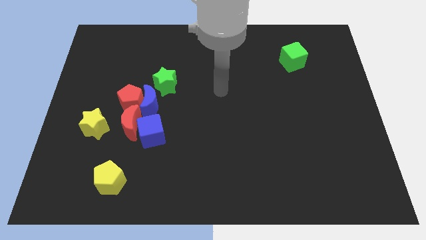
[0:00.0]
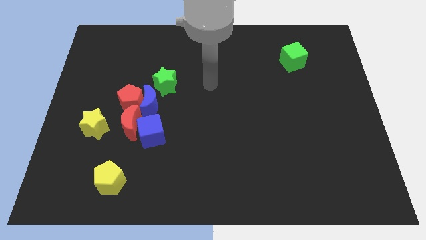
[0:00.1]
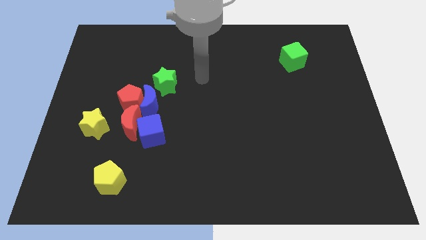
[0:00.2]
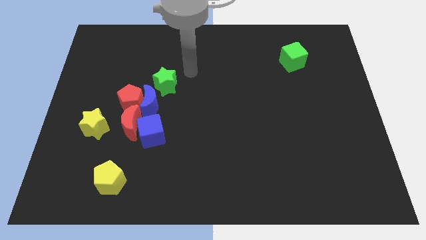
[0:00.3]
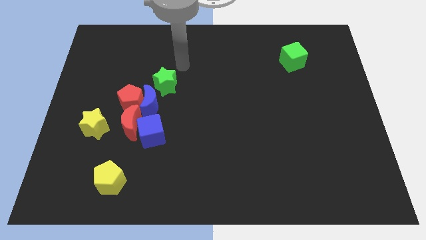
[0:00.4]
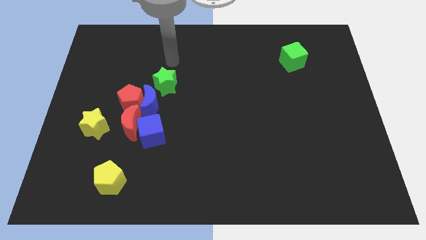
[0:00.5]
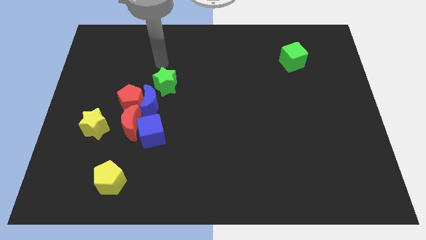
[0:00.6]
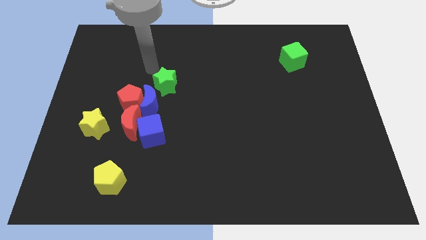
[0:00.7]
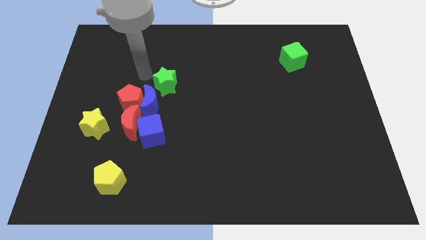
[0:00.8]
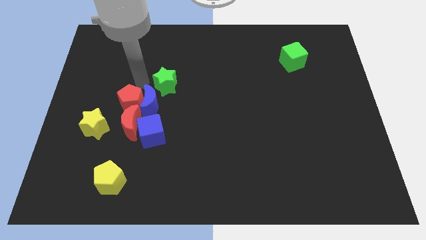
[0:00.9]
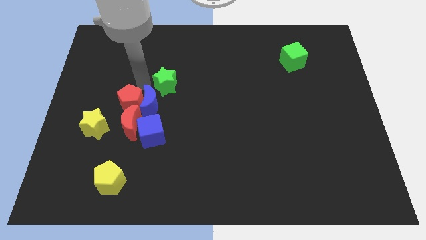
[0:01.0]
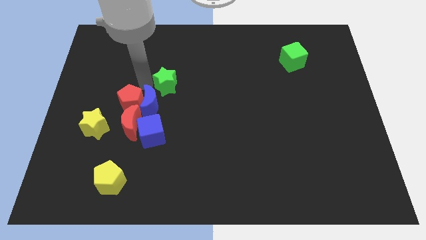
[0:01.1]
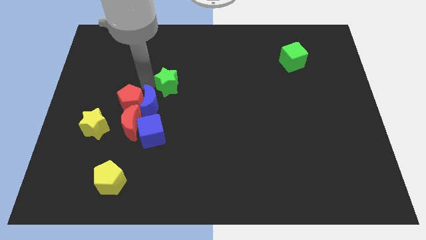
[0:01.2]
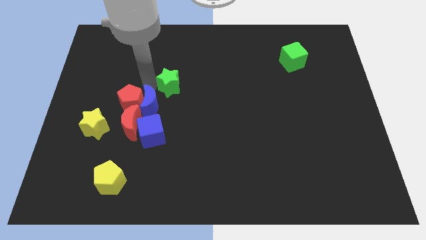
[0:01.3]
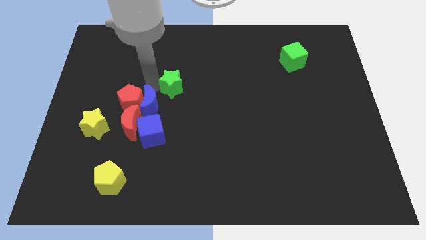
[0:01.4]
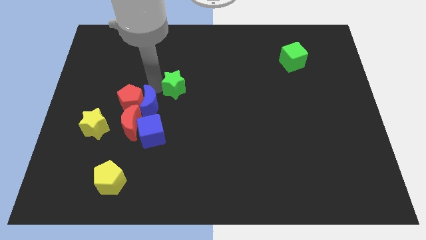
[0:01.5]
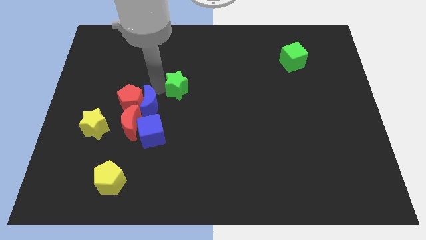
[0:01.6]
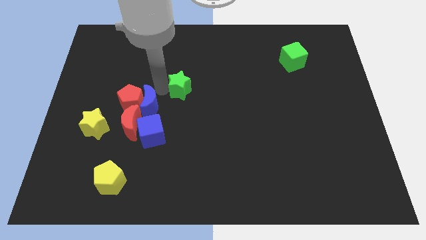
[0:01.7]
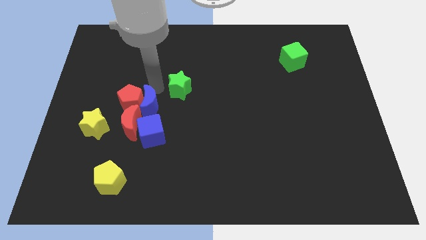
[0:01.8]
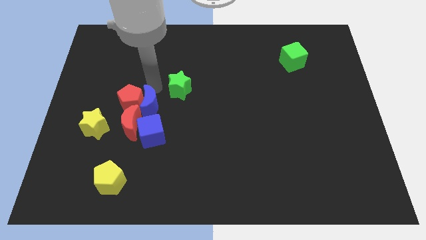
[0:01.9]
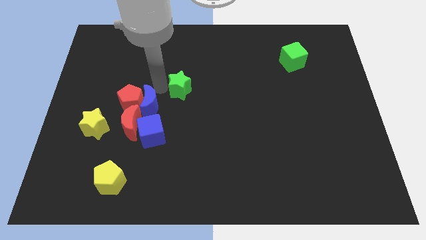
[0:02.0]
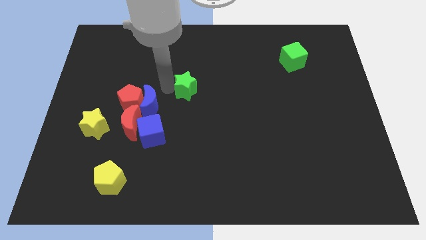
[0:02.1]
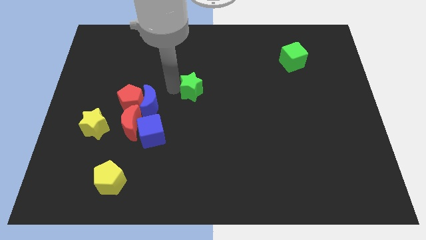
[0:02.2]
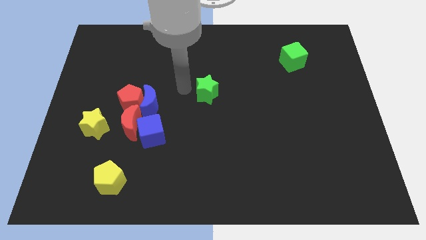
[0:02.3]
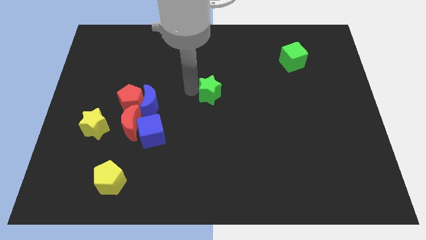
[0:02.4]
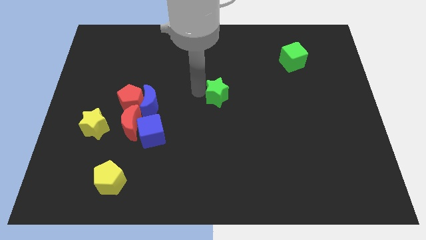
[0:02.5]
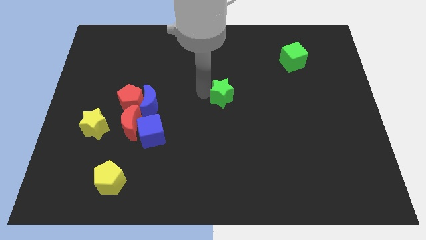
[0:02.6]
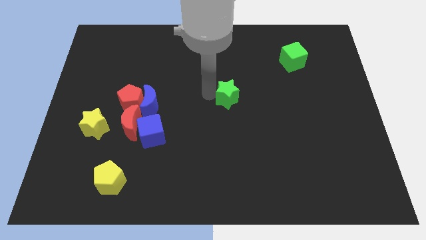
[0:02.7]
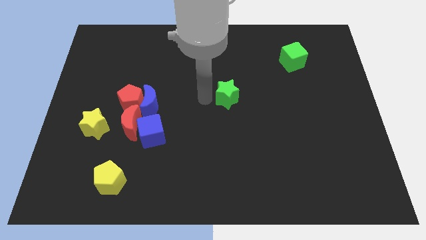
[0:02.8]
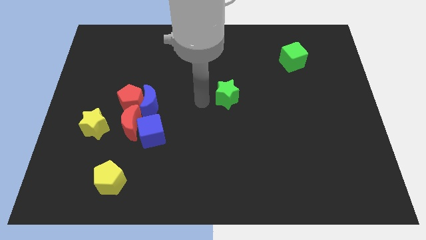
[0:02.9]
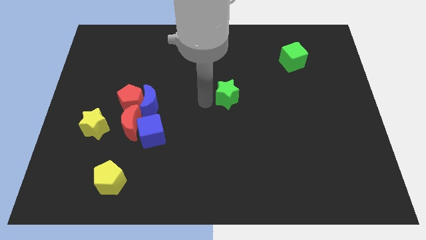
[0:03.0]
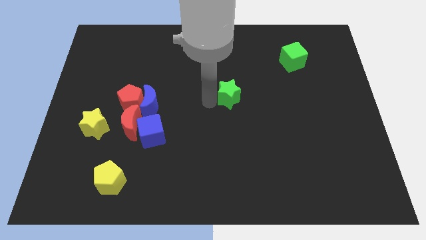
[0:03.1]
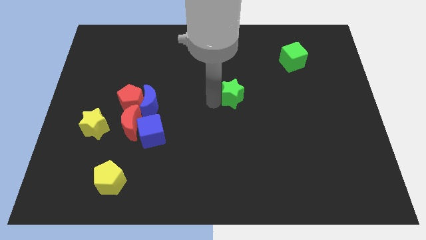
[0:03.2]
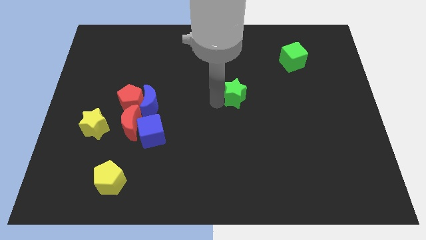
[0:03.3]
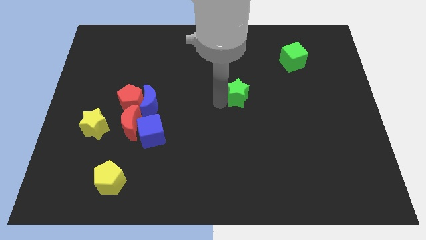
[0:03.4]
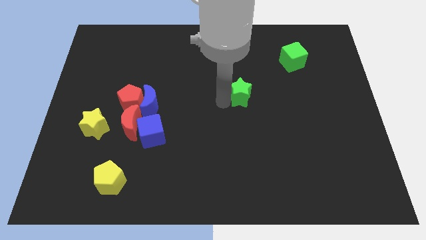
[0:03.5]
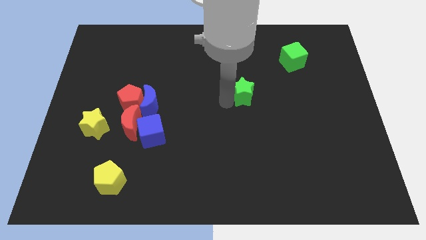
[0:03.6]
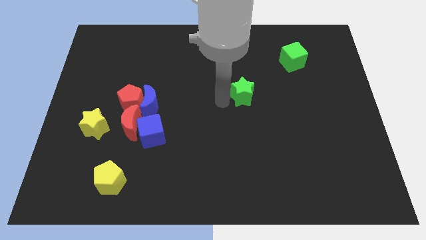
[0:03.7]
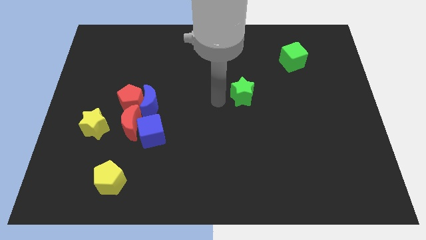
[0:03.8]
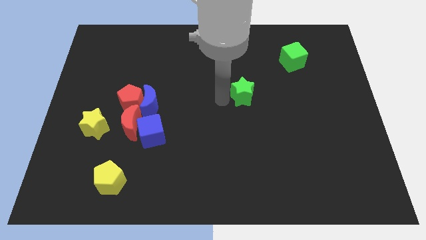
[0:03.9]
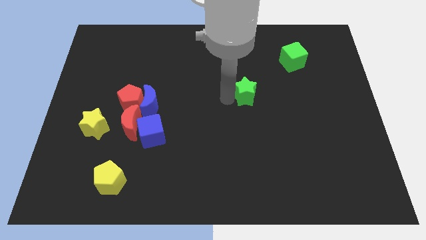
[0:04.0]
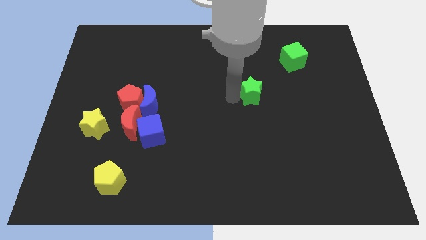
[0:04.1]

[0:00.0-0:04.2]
push the green star to the right

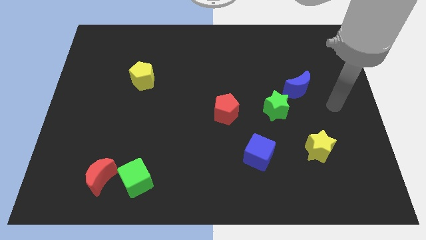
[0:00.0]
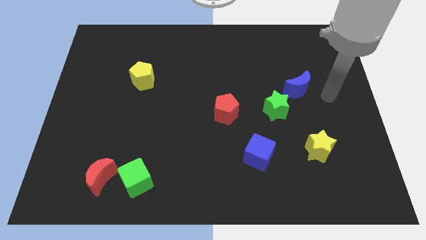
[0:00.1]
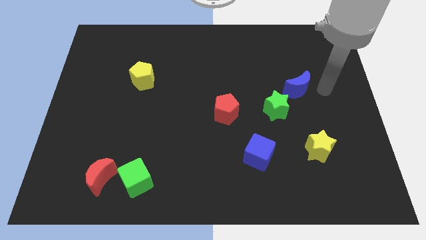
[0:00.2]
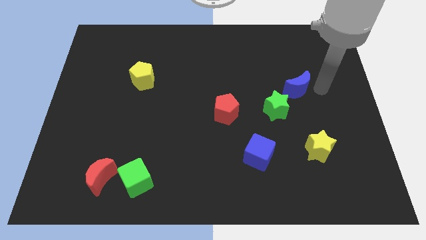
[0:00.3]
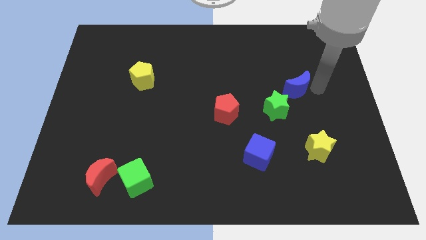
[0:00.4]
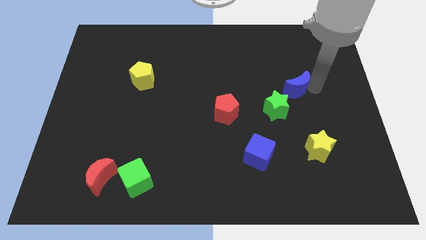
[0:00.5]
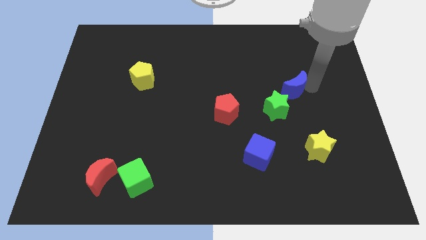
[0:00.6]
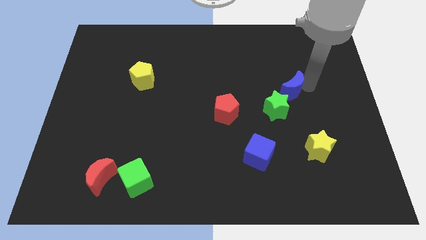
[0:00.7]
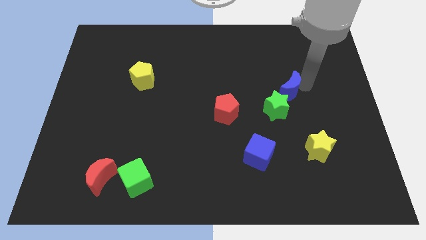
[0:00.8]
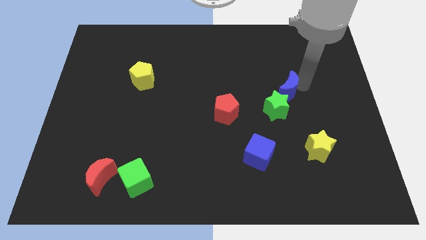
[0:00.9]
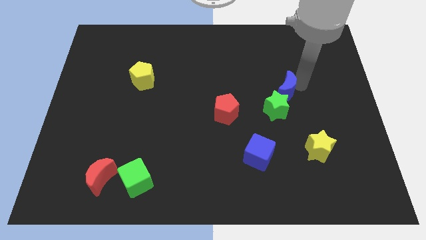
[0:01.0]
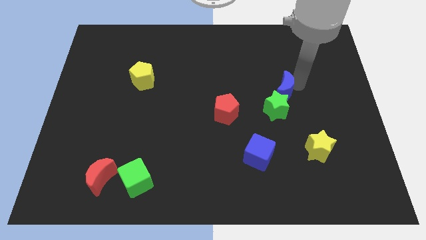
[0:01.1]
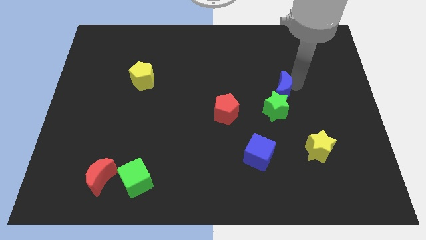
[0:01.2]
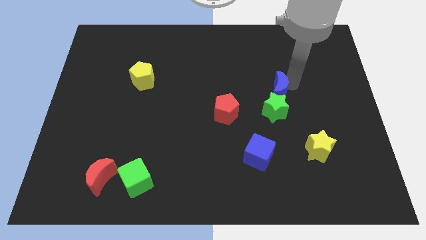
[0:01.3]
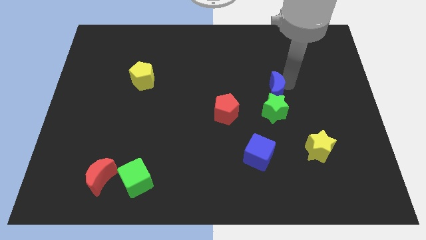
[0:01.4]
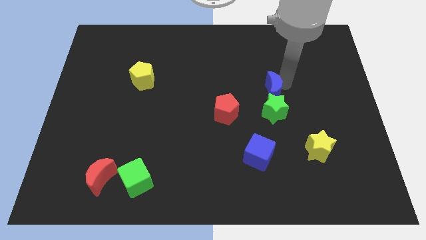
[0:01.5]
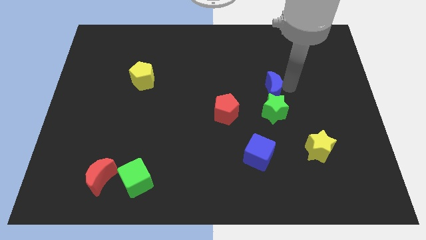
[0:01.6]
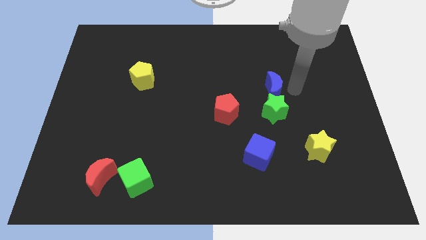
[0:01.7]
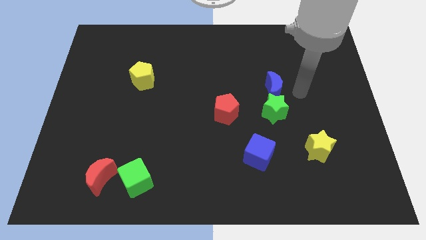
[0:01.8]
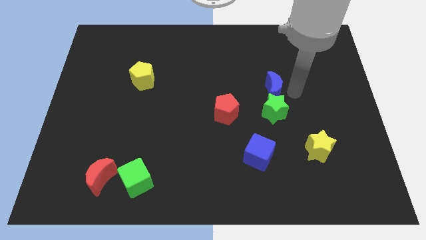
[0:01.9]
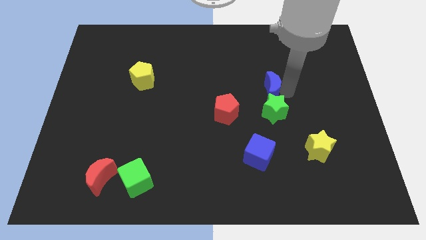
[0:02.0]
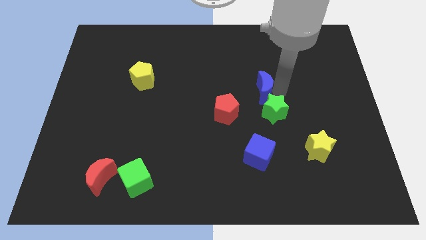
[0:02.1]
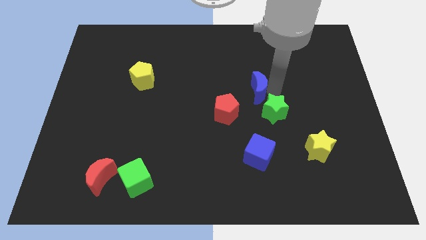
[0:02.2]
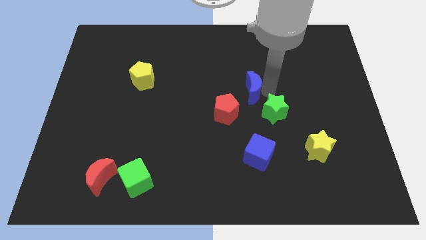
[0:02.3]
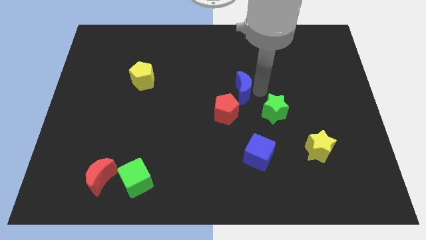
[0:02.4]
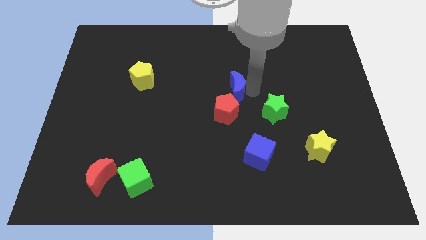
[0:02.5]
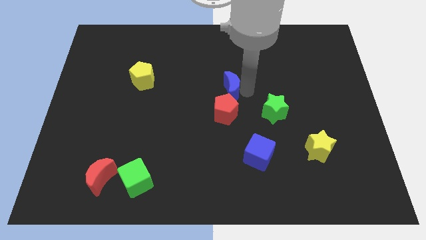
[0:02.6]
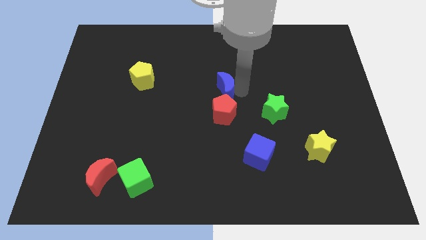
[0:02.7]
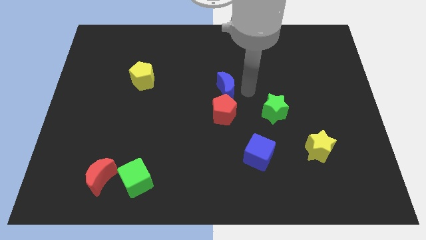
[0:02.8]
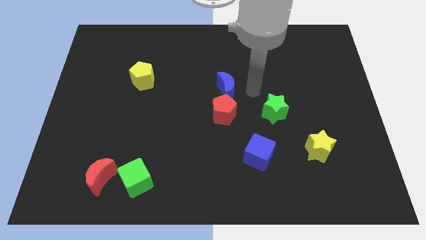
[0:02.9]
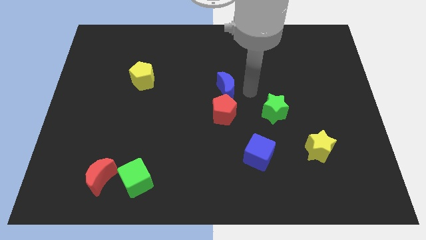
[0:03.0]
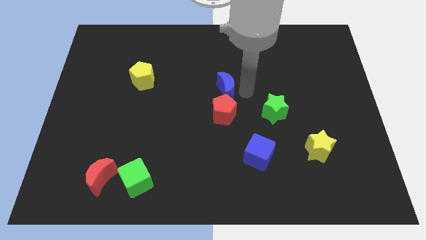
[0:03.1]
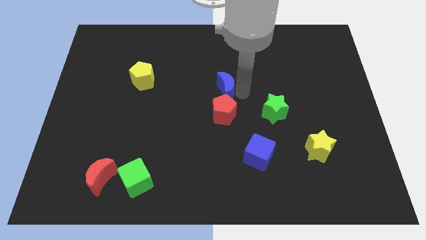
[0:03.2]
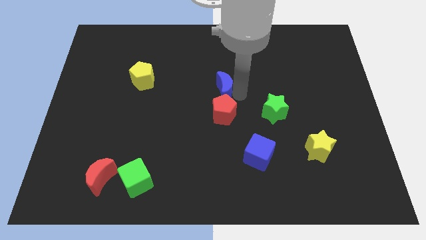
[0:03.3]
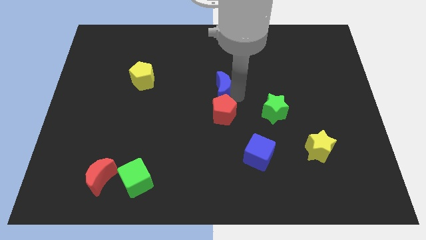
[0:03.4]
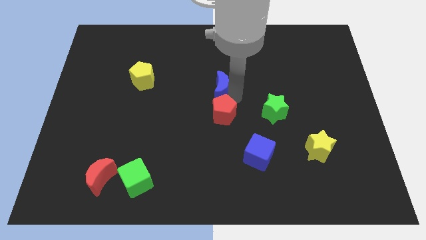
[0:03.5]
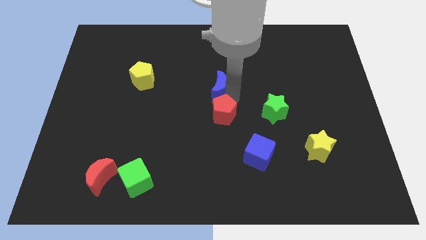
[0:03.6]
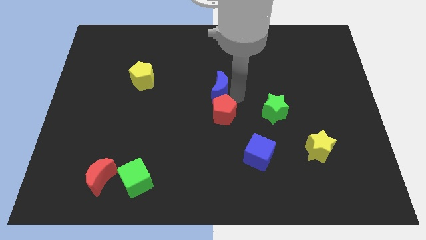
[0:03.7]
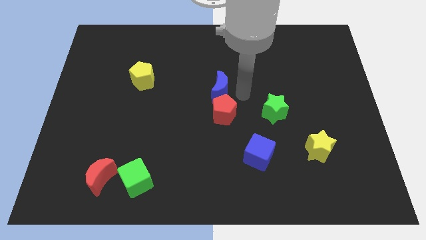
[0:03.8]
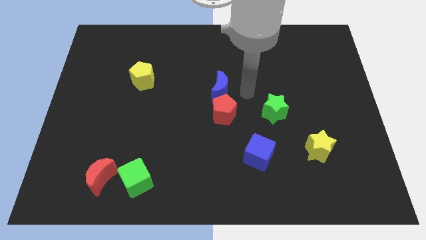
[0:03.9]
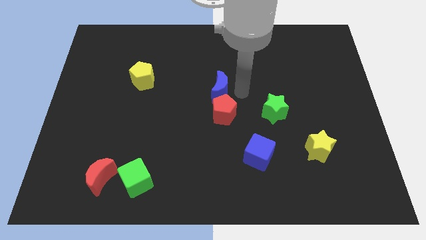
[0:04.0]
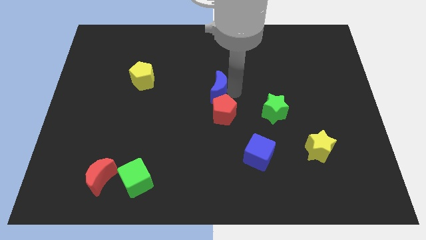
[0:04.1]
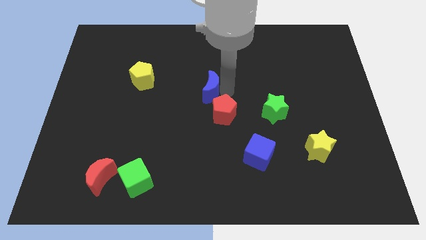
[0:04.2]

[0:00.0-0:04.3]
move the blue moon to the left
